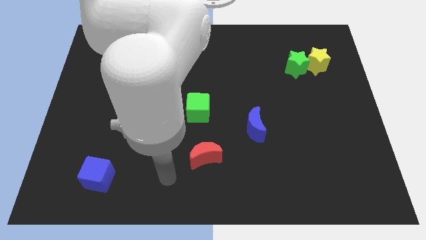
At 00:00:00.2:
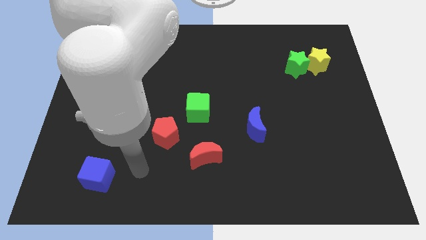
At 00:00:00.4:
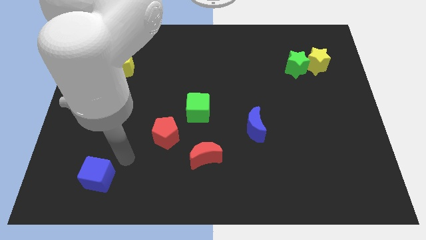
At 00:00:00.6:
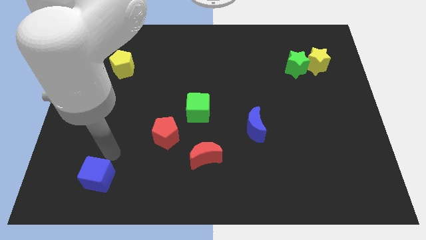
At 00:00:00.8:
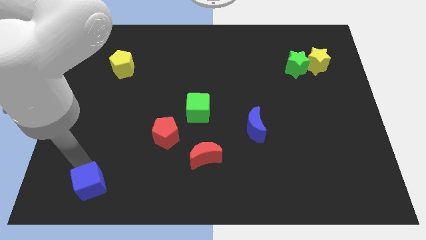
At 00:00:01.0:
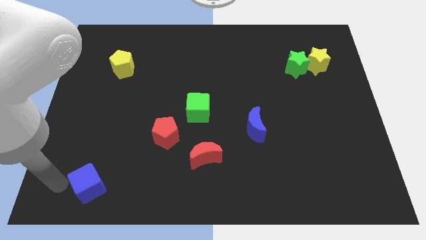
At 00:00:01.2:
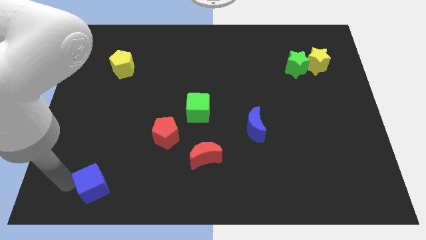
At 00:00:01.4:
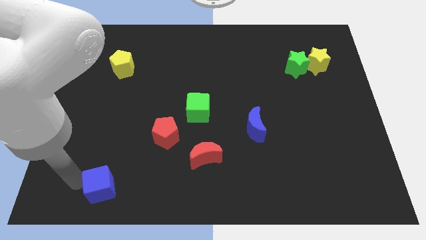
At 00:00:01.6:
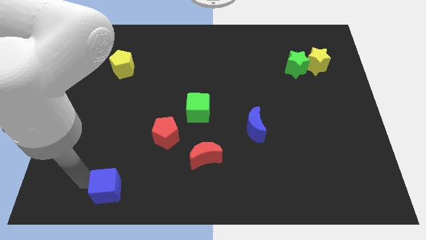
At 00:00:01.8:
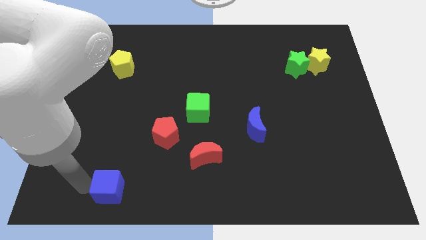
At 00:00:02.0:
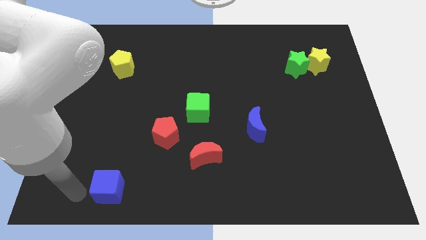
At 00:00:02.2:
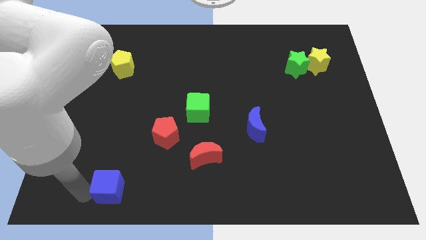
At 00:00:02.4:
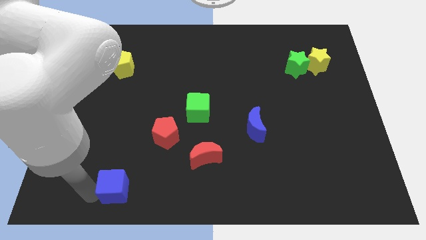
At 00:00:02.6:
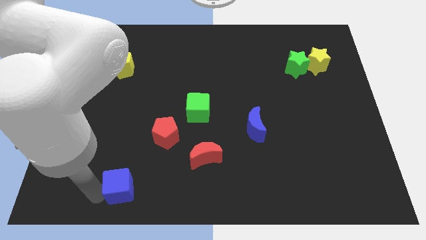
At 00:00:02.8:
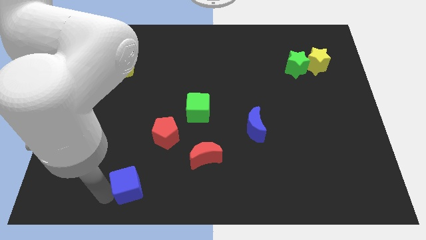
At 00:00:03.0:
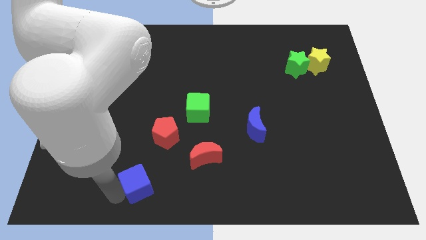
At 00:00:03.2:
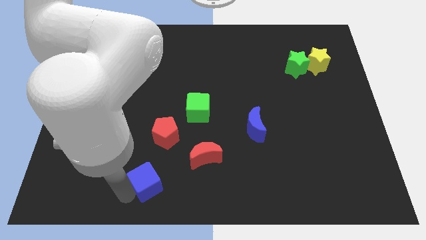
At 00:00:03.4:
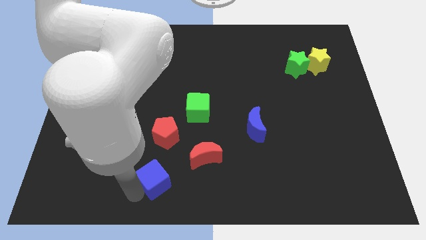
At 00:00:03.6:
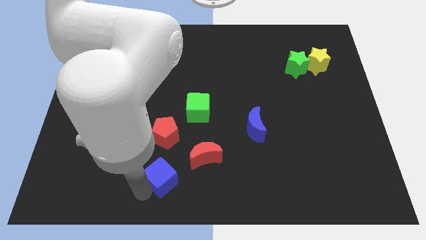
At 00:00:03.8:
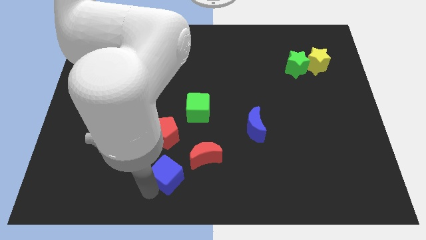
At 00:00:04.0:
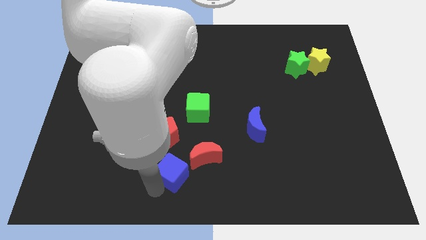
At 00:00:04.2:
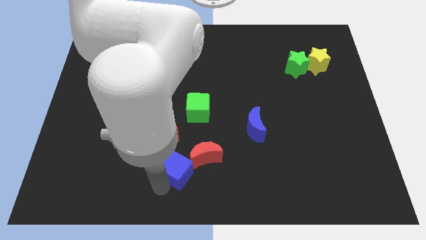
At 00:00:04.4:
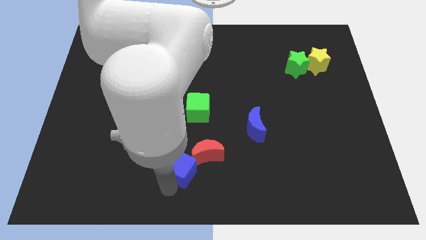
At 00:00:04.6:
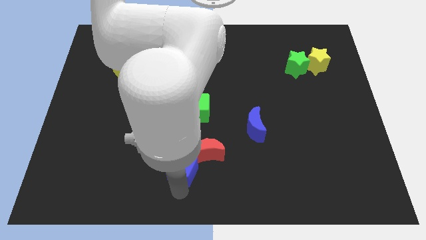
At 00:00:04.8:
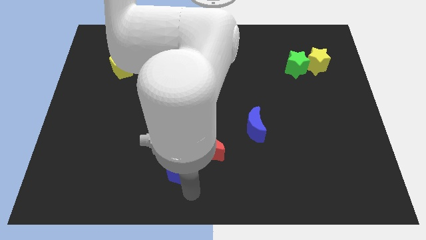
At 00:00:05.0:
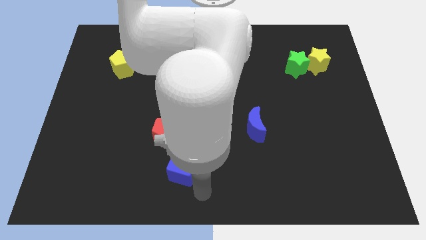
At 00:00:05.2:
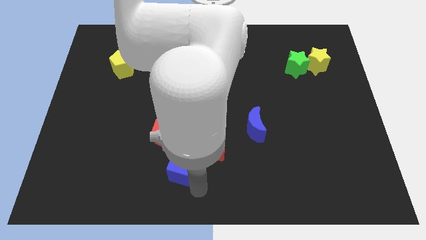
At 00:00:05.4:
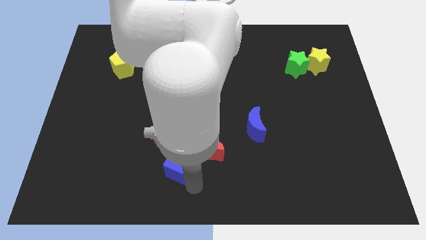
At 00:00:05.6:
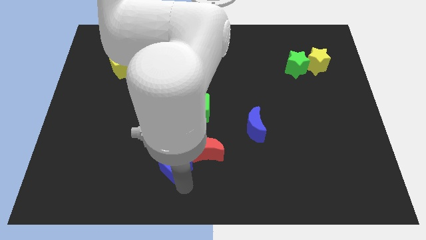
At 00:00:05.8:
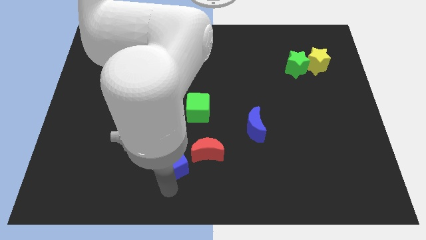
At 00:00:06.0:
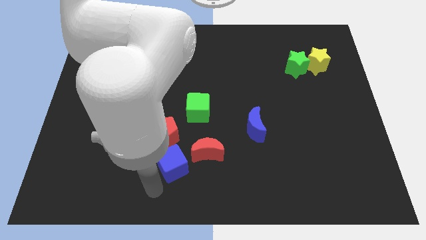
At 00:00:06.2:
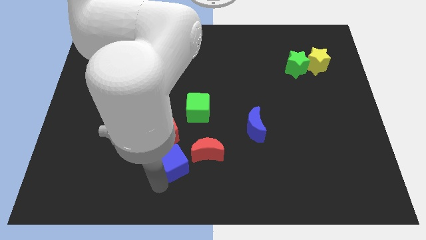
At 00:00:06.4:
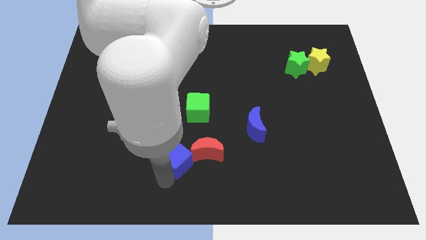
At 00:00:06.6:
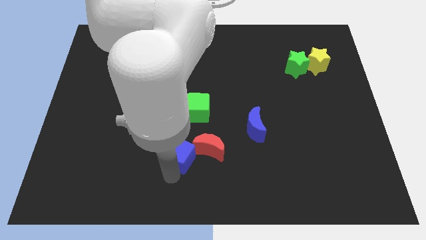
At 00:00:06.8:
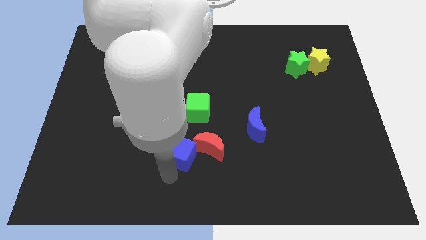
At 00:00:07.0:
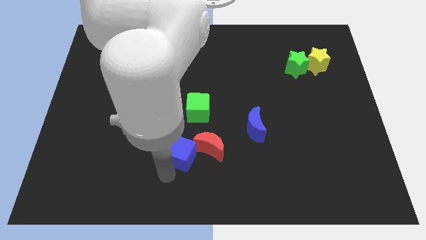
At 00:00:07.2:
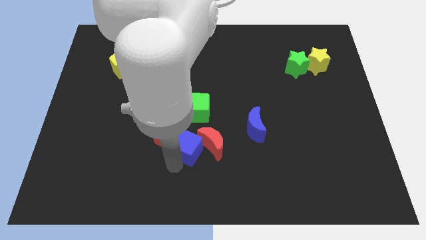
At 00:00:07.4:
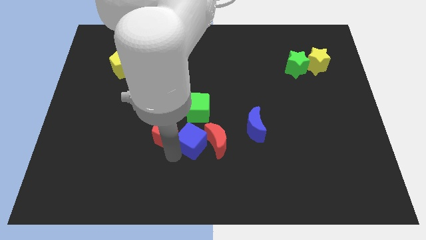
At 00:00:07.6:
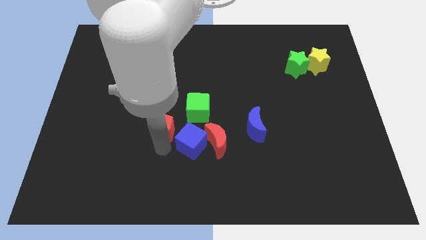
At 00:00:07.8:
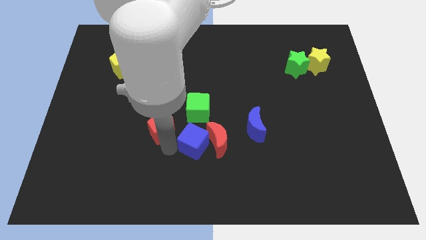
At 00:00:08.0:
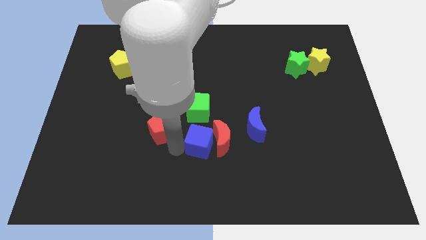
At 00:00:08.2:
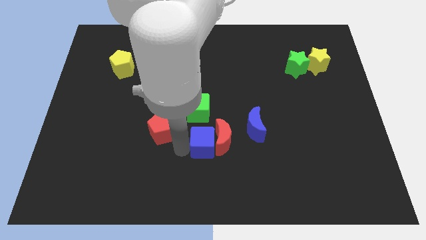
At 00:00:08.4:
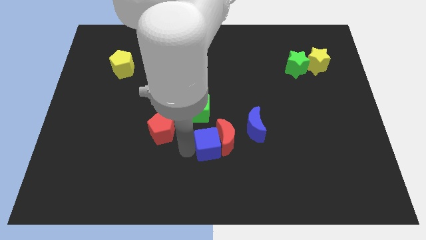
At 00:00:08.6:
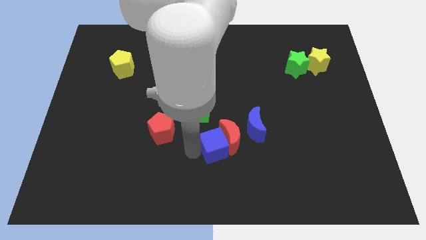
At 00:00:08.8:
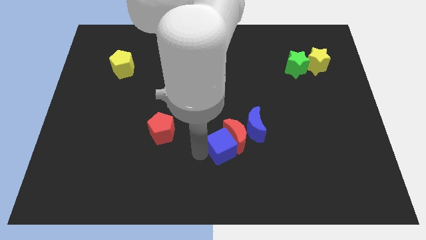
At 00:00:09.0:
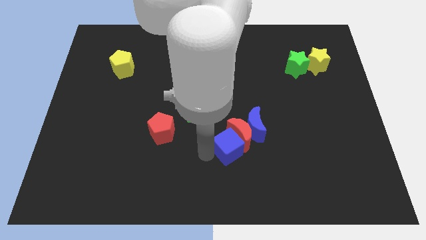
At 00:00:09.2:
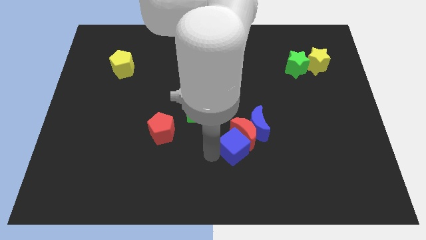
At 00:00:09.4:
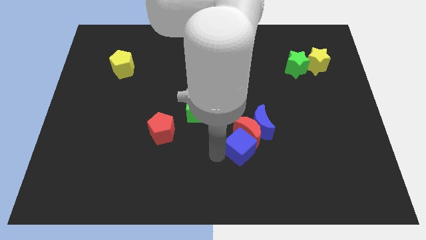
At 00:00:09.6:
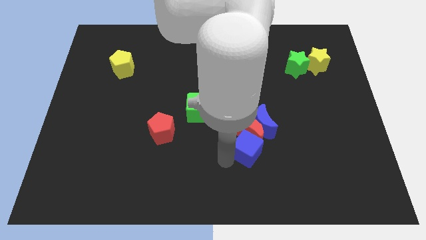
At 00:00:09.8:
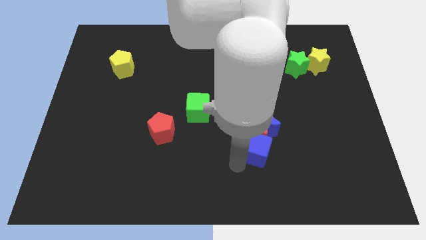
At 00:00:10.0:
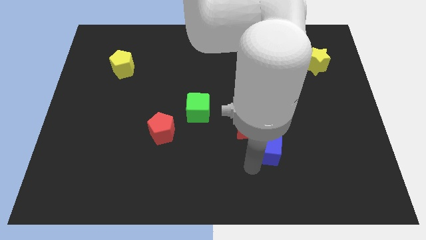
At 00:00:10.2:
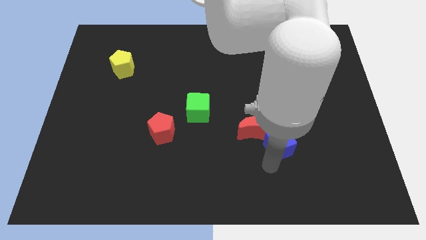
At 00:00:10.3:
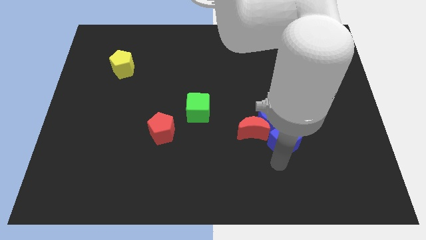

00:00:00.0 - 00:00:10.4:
move the blue cube next to the blue moon

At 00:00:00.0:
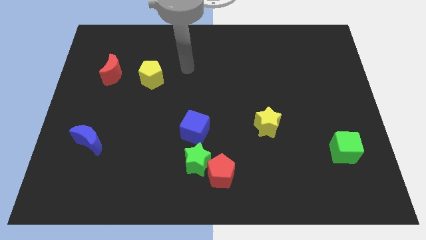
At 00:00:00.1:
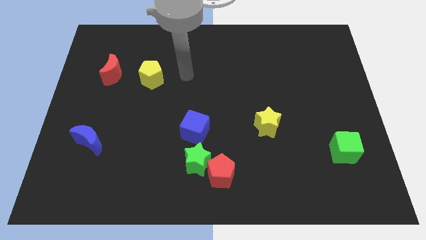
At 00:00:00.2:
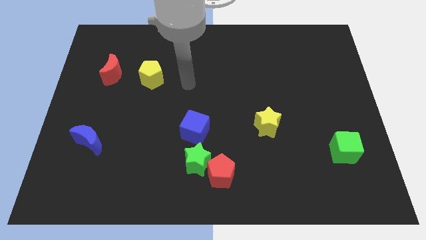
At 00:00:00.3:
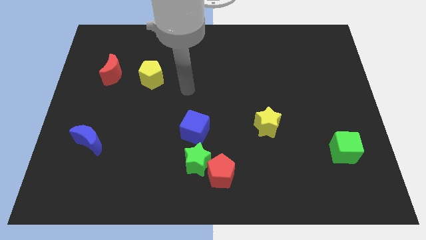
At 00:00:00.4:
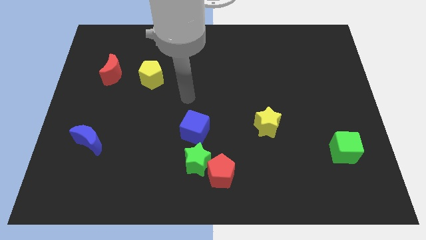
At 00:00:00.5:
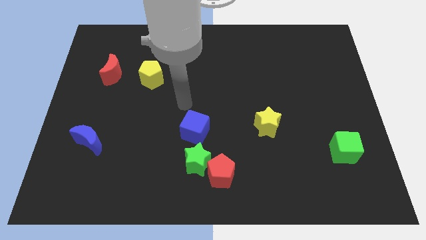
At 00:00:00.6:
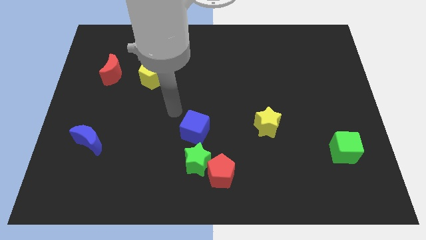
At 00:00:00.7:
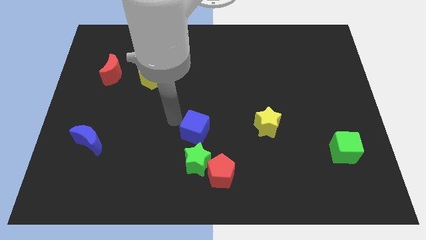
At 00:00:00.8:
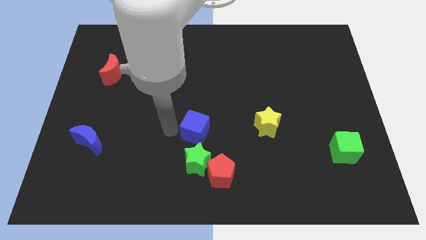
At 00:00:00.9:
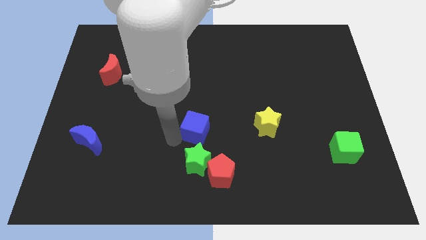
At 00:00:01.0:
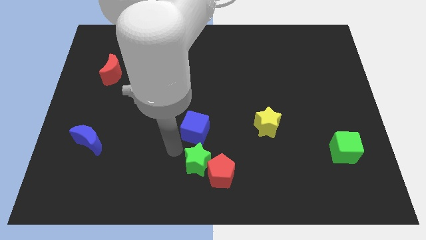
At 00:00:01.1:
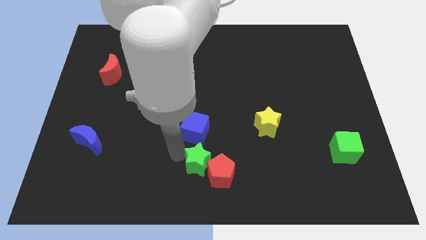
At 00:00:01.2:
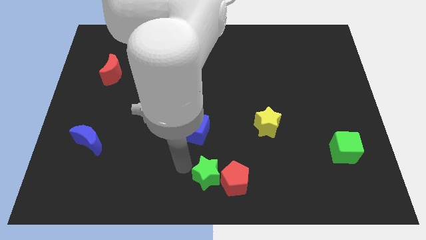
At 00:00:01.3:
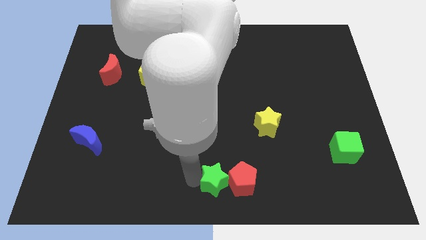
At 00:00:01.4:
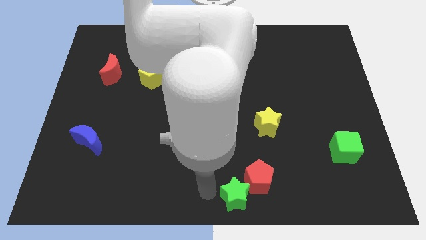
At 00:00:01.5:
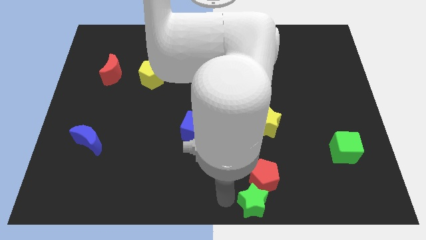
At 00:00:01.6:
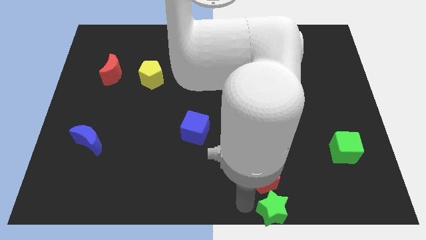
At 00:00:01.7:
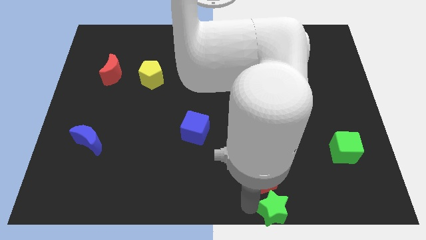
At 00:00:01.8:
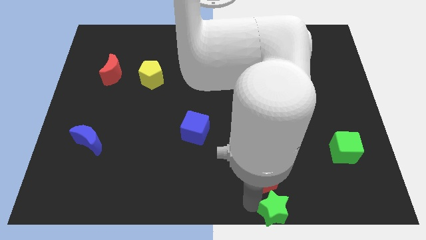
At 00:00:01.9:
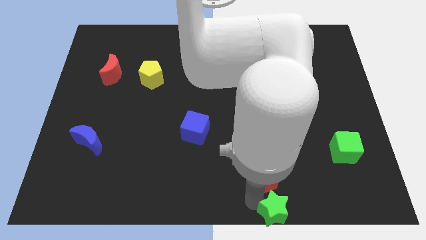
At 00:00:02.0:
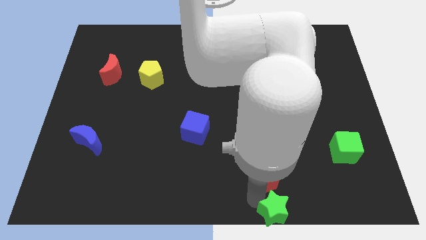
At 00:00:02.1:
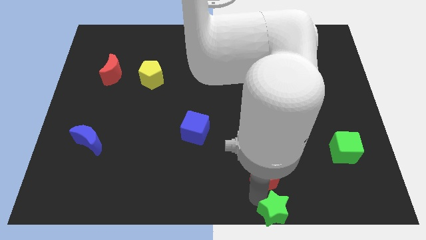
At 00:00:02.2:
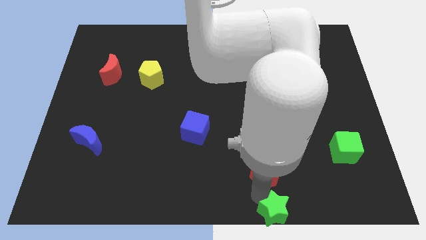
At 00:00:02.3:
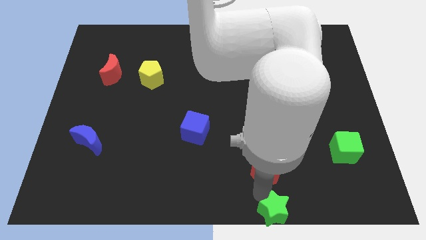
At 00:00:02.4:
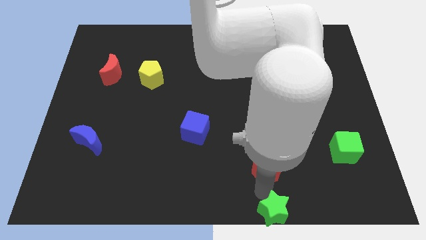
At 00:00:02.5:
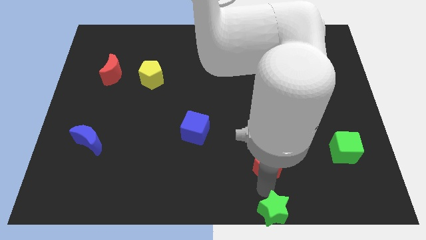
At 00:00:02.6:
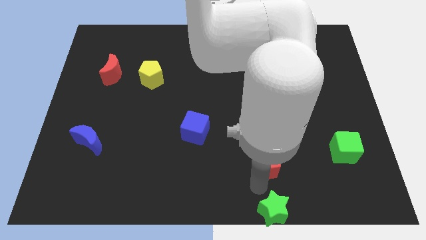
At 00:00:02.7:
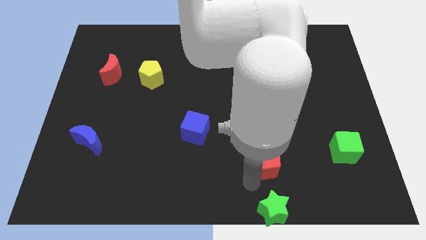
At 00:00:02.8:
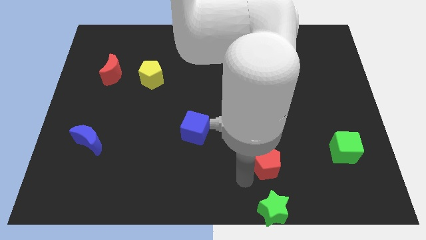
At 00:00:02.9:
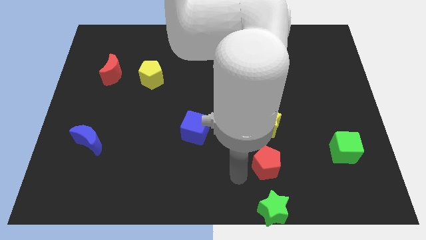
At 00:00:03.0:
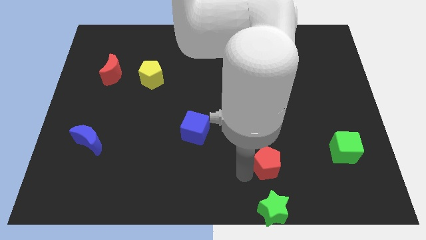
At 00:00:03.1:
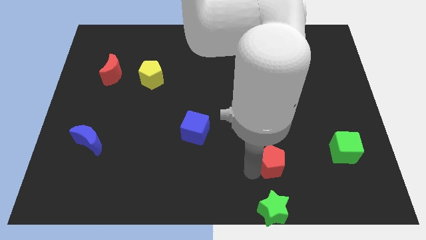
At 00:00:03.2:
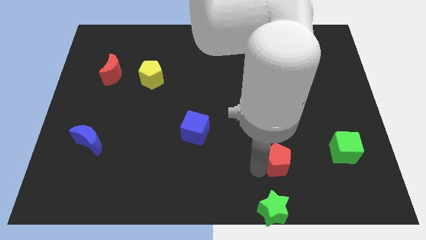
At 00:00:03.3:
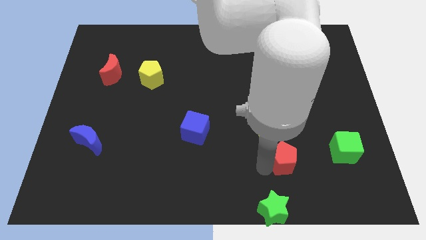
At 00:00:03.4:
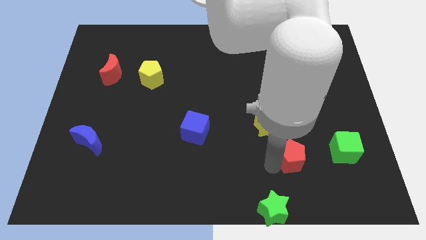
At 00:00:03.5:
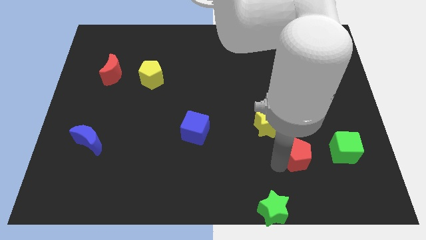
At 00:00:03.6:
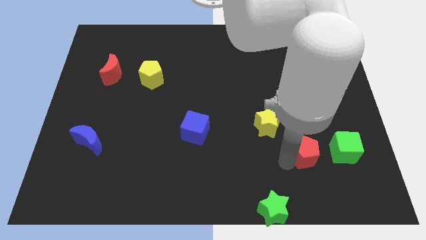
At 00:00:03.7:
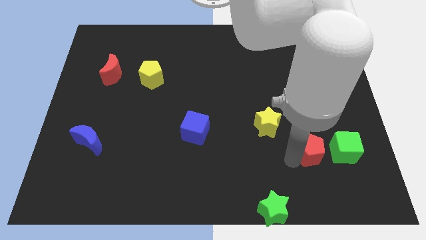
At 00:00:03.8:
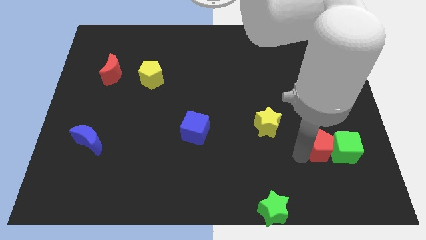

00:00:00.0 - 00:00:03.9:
put the red pentagon close to the green cube
